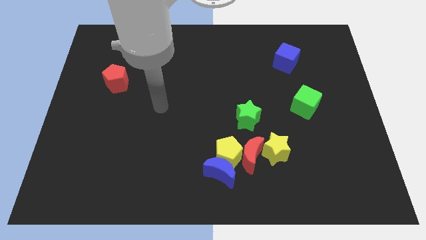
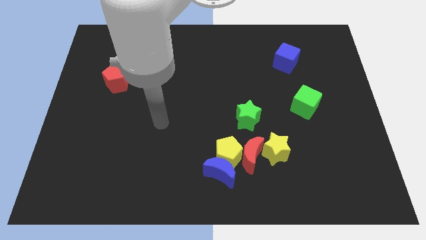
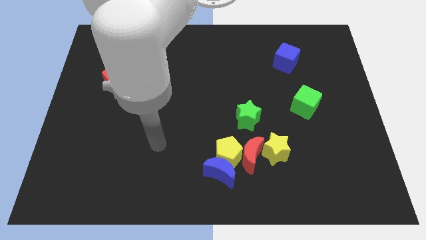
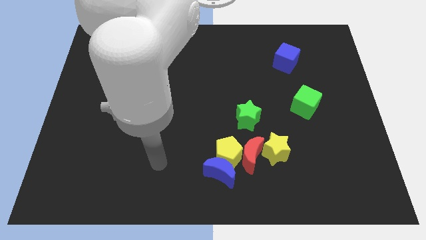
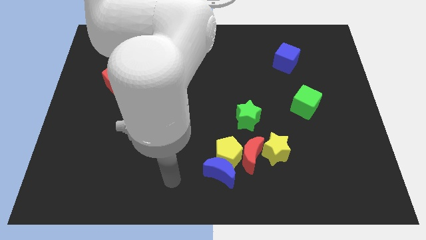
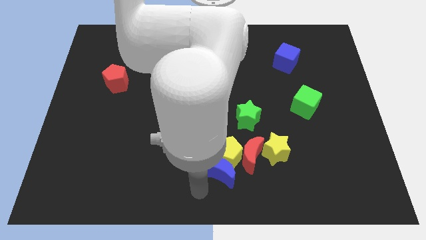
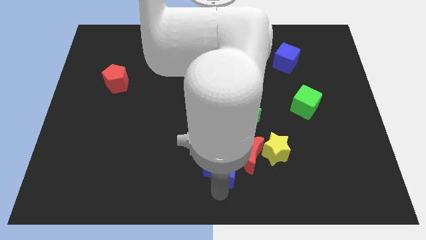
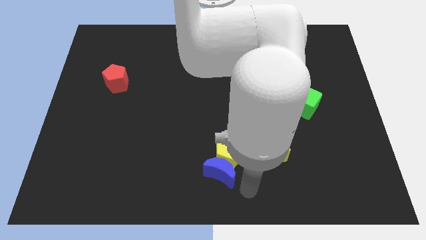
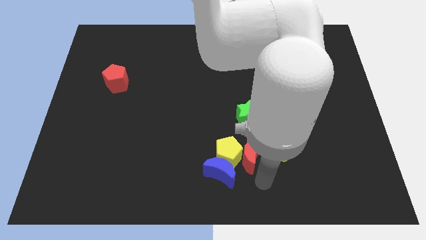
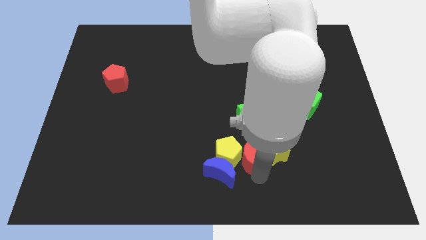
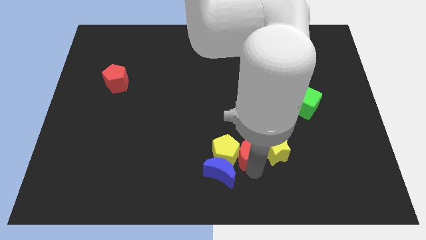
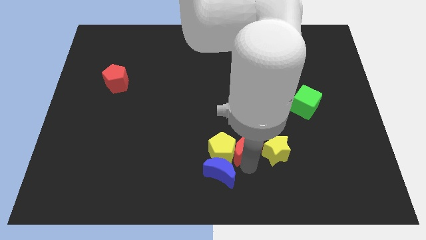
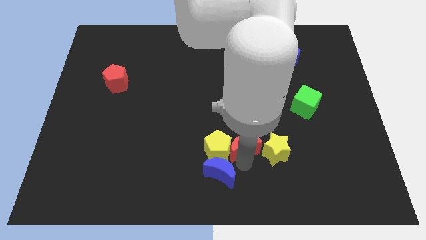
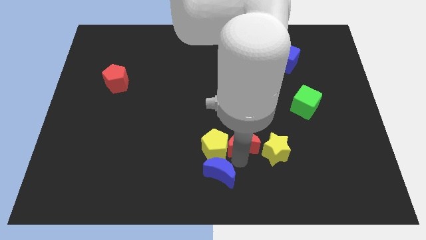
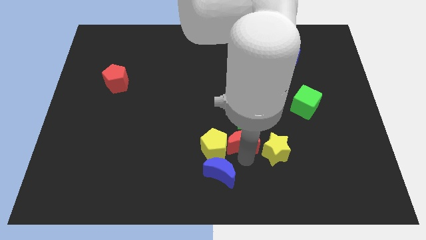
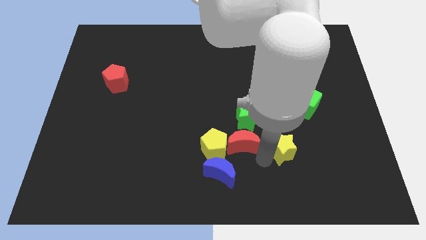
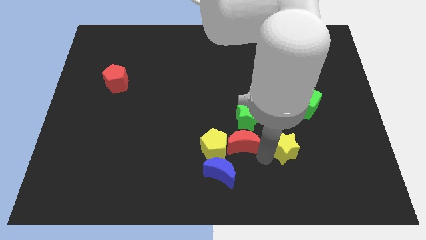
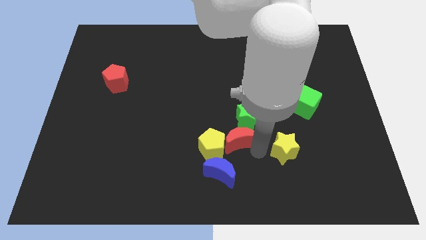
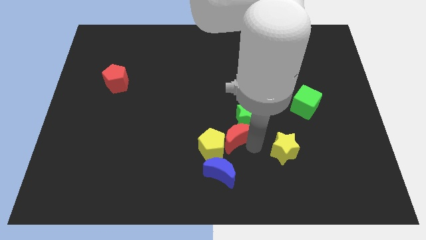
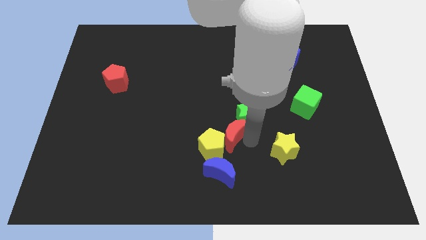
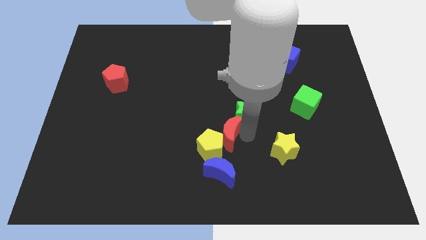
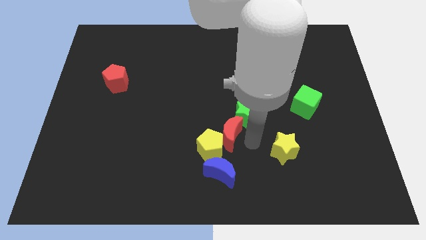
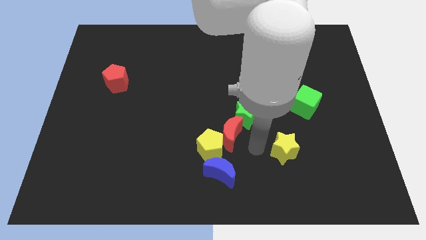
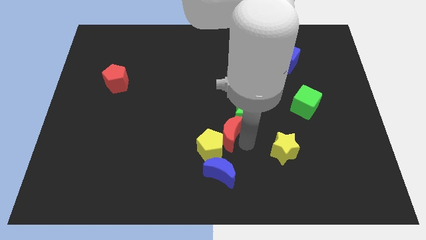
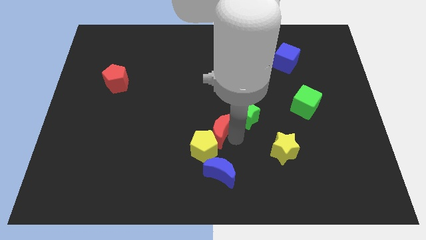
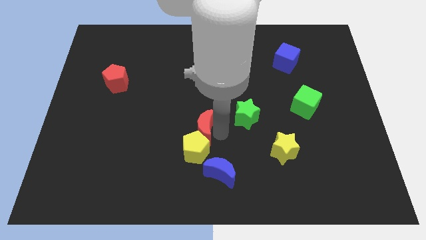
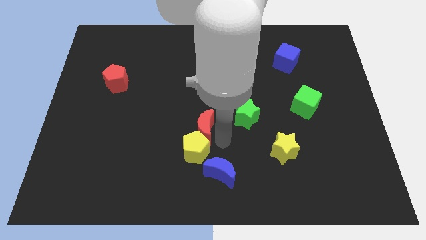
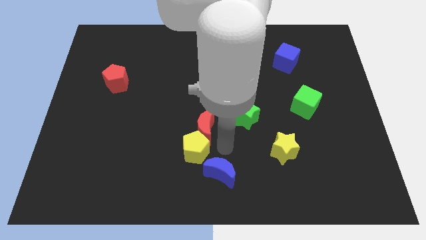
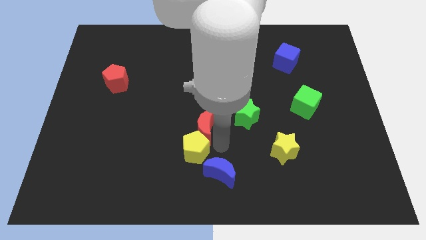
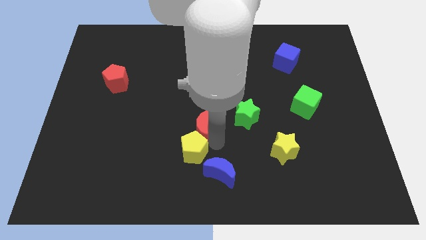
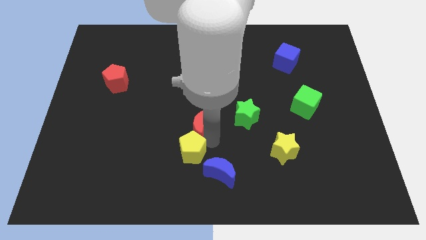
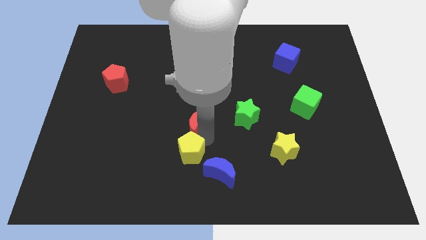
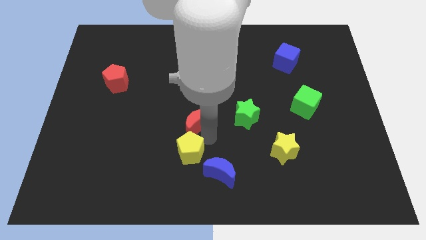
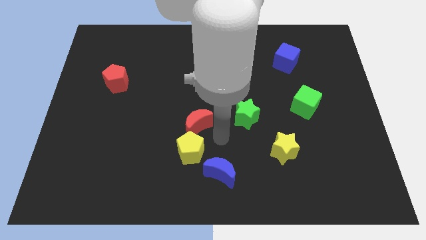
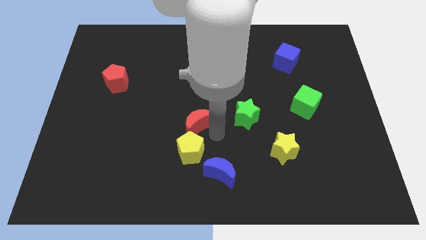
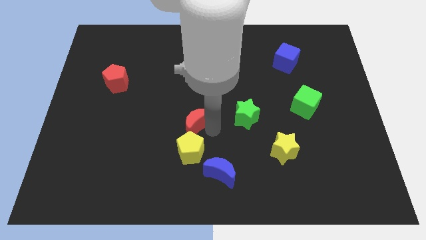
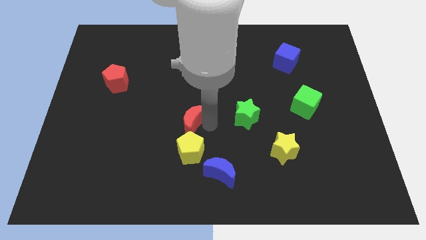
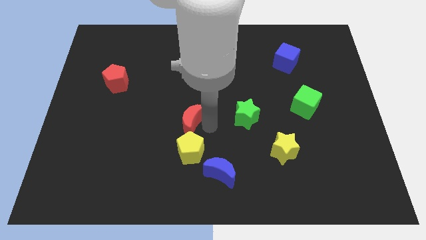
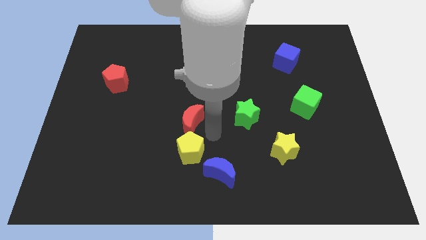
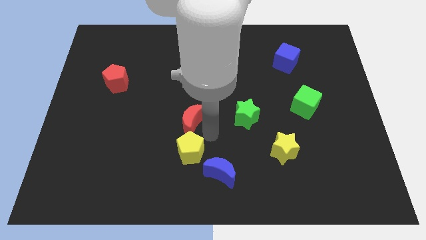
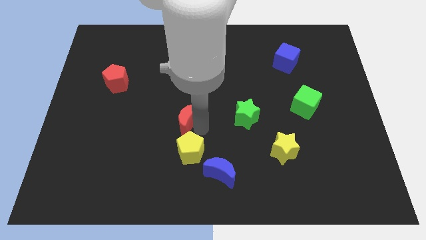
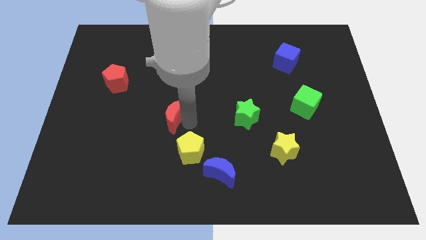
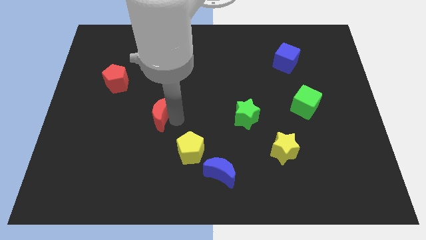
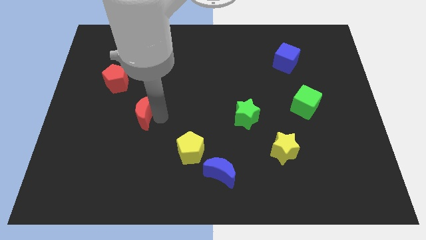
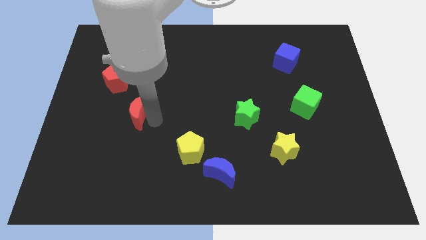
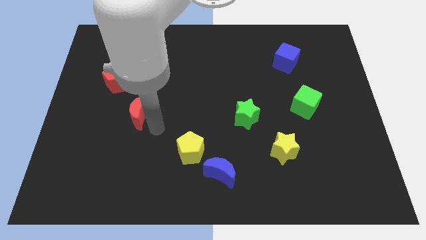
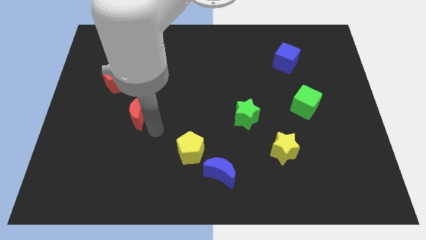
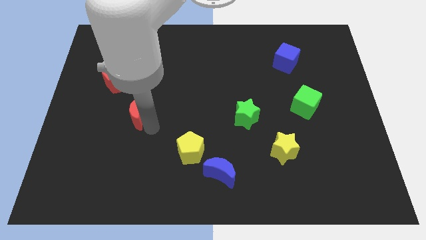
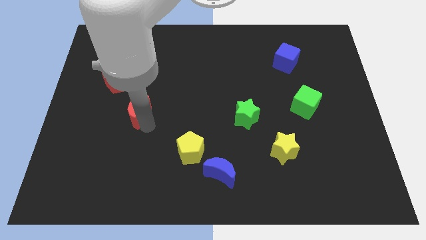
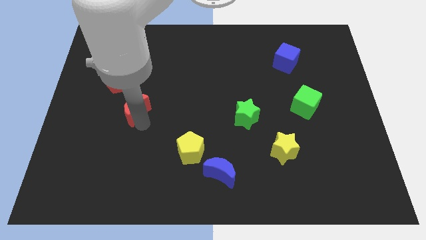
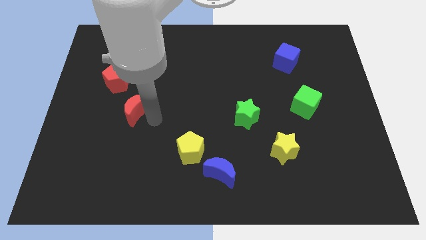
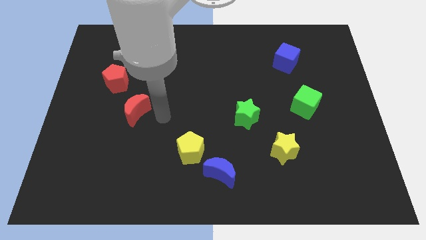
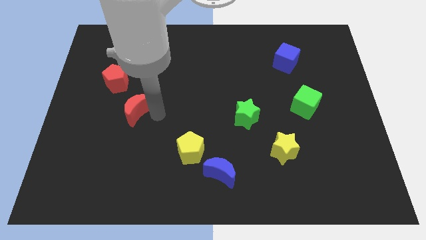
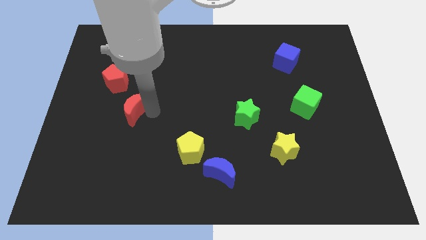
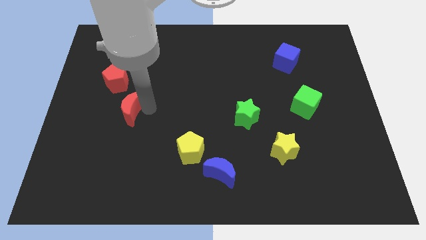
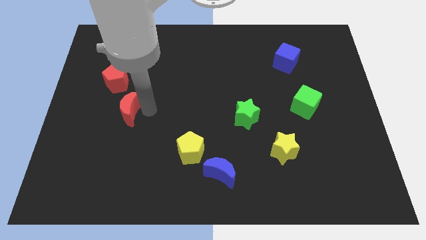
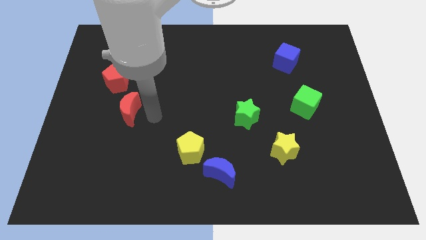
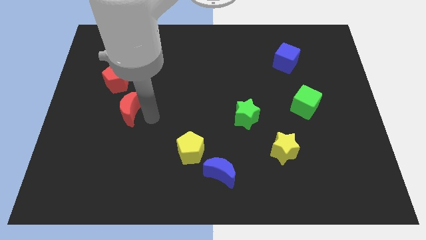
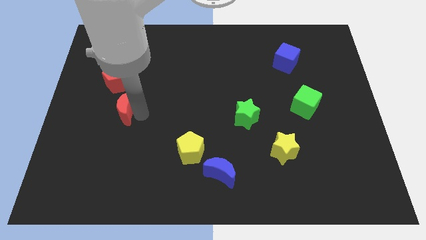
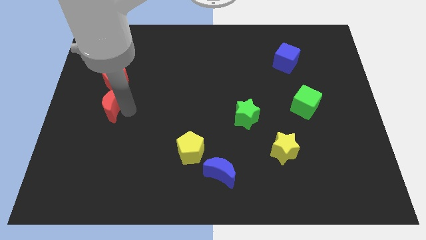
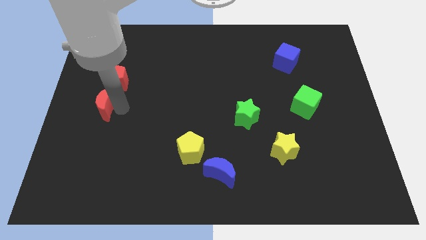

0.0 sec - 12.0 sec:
move the red moon to the center left

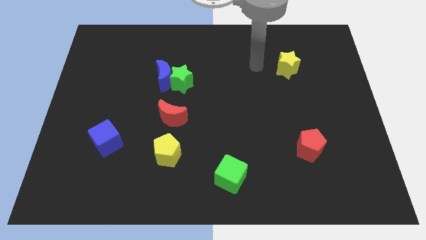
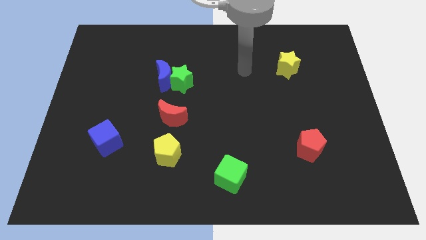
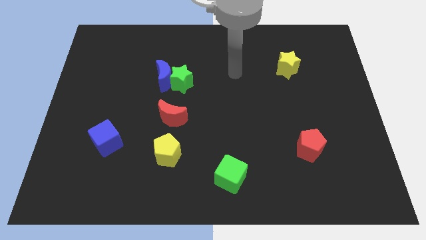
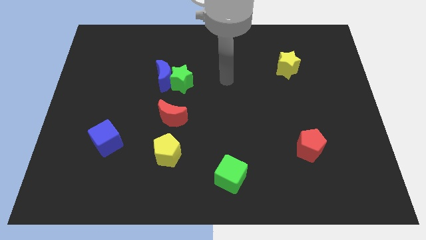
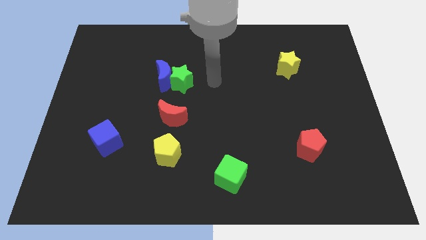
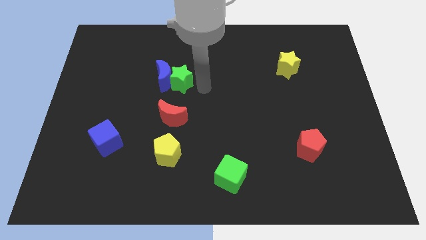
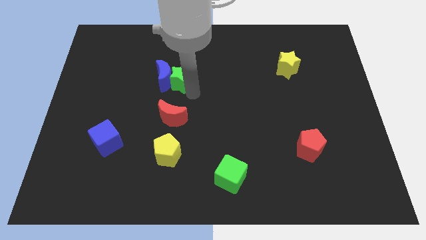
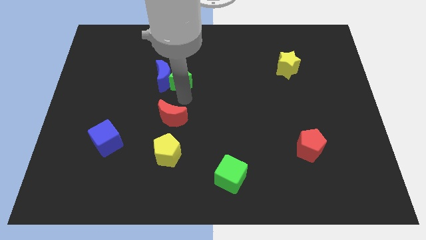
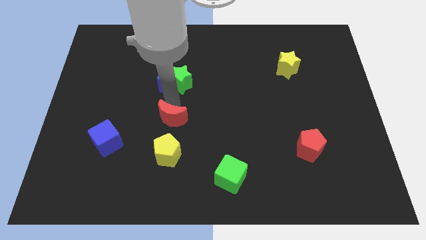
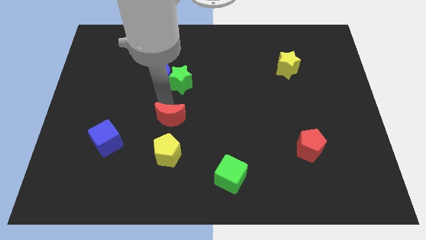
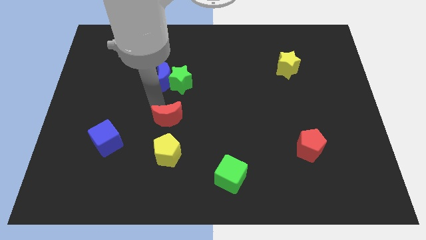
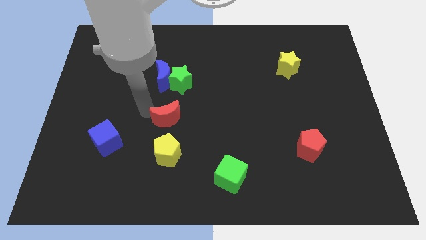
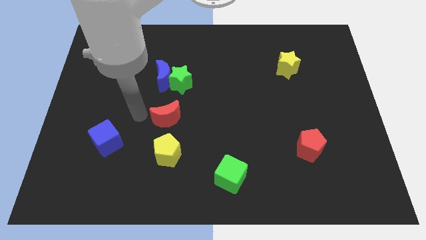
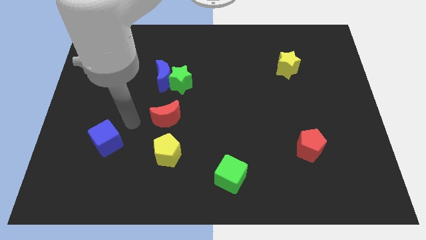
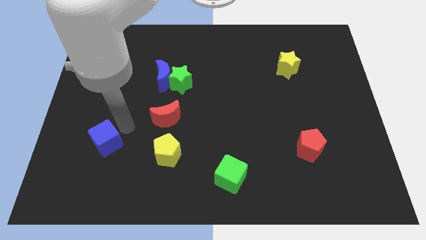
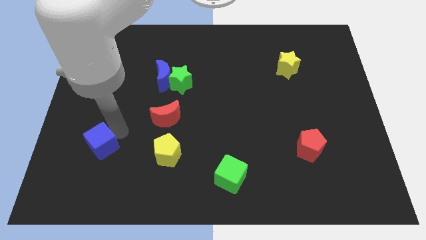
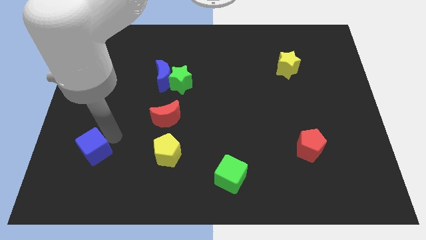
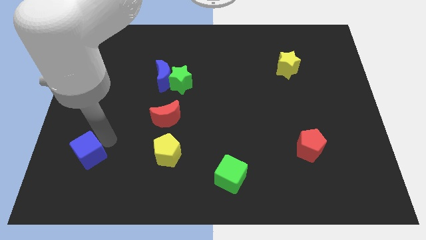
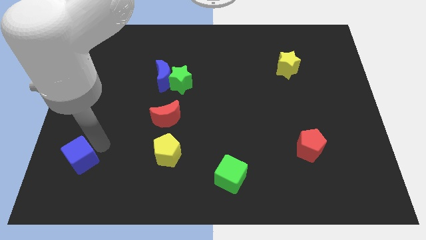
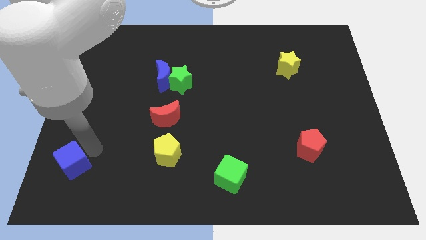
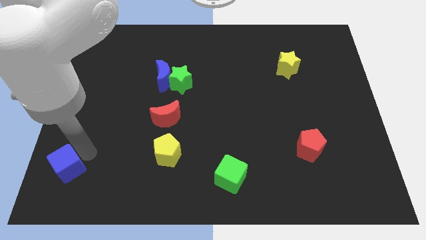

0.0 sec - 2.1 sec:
push the blue cube to the bottom left corner
